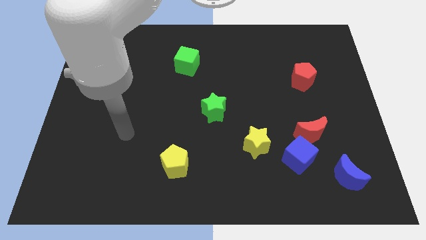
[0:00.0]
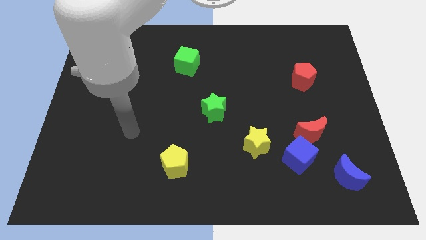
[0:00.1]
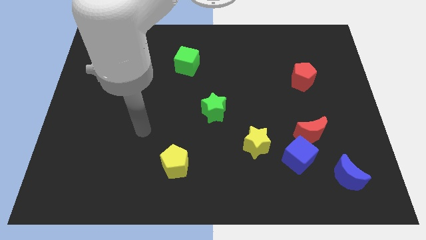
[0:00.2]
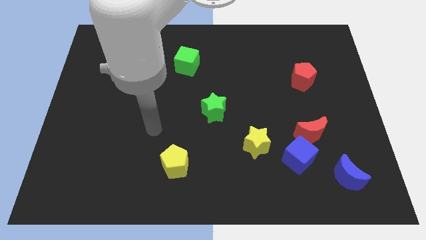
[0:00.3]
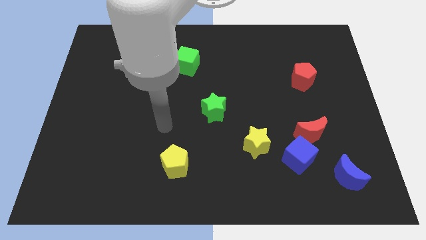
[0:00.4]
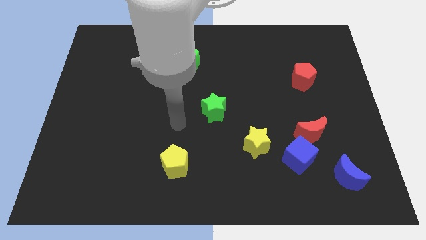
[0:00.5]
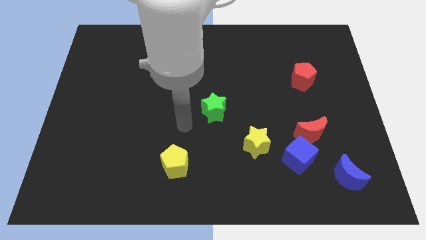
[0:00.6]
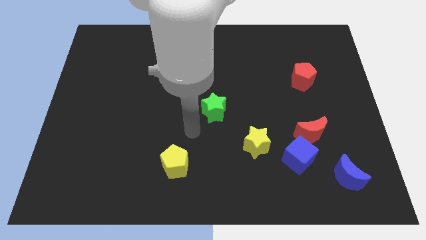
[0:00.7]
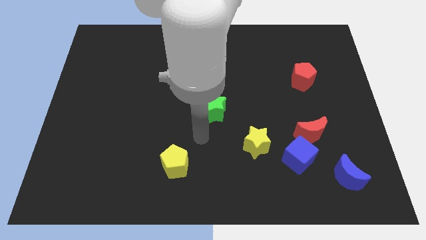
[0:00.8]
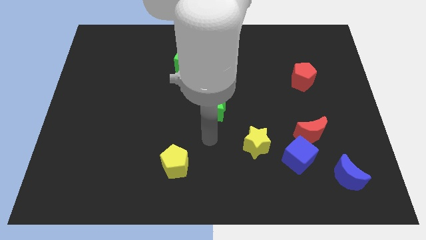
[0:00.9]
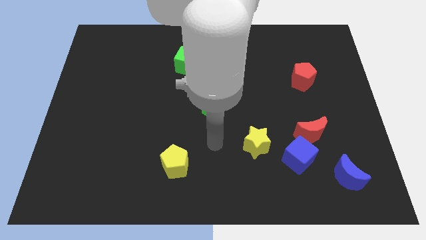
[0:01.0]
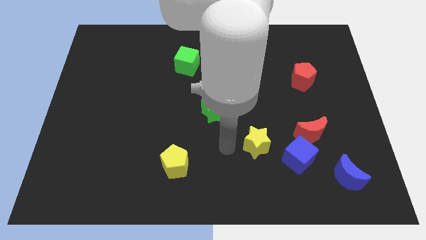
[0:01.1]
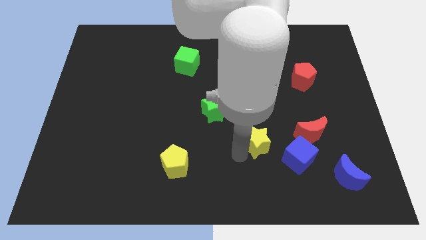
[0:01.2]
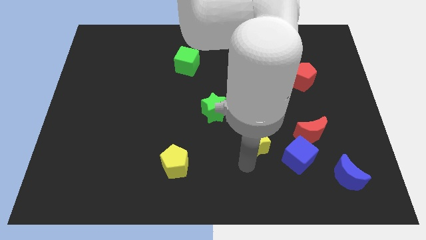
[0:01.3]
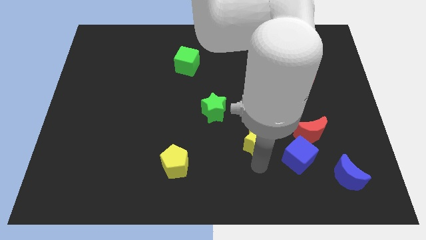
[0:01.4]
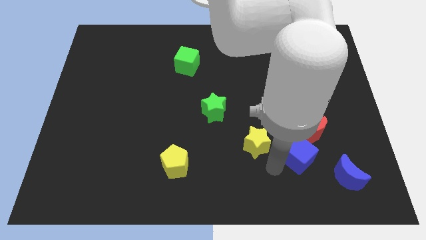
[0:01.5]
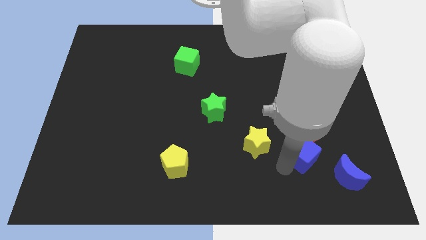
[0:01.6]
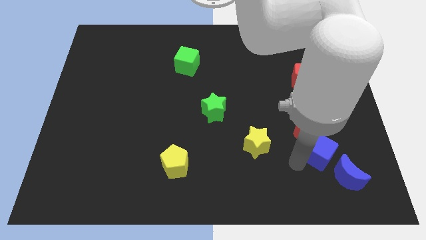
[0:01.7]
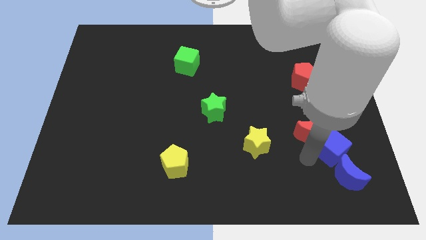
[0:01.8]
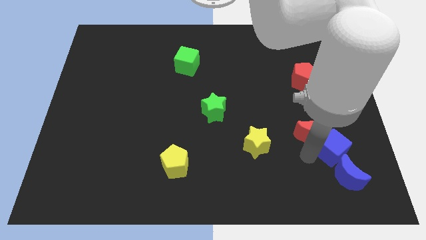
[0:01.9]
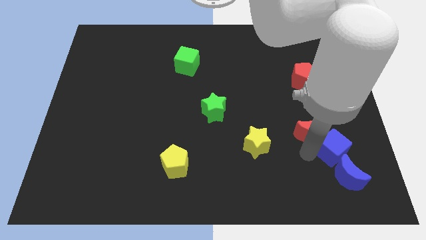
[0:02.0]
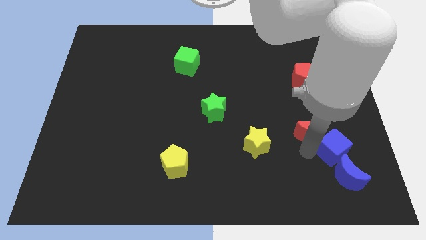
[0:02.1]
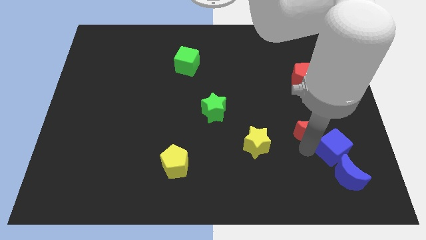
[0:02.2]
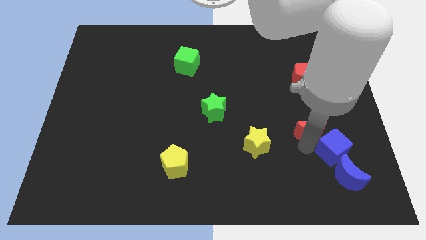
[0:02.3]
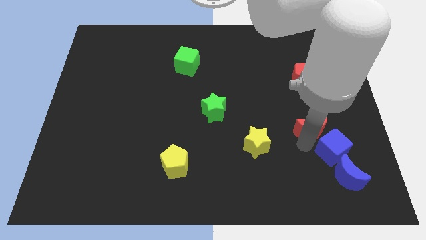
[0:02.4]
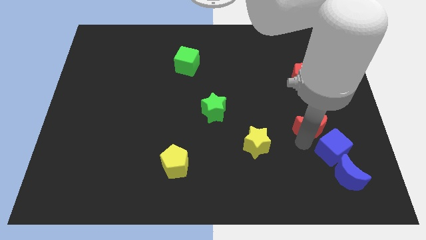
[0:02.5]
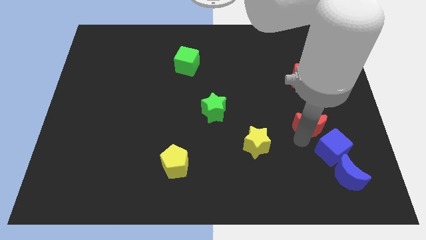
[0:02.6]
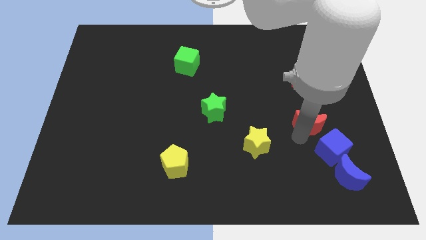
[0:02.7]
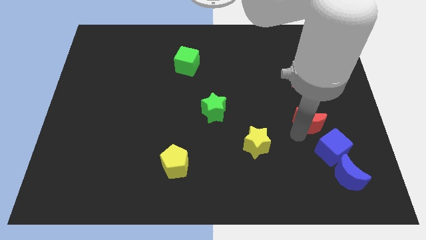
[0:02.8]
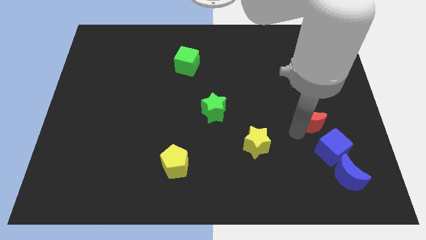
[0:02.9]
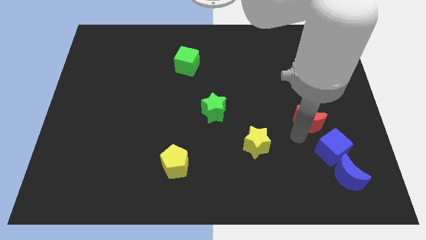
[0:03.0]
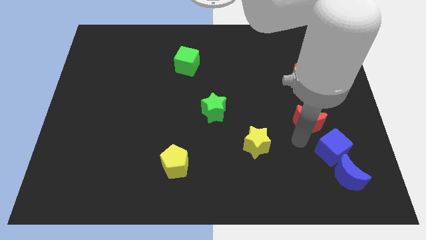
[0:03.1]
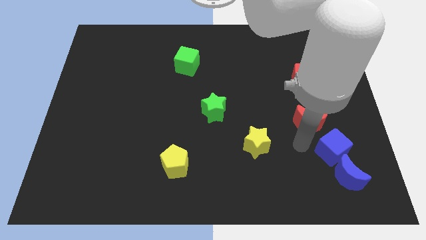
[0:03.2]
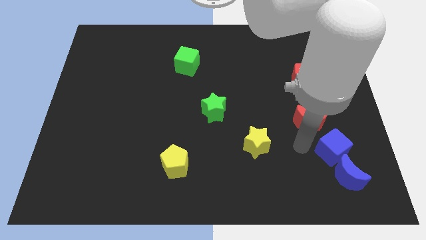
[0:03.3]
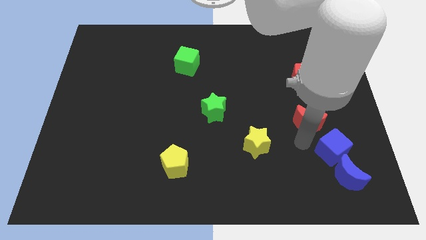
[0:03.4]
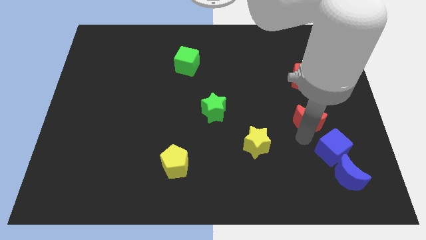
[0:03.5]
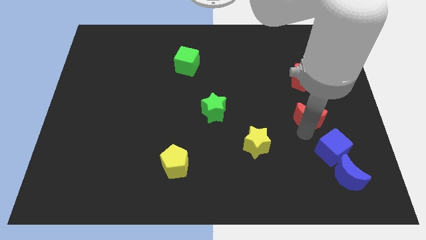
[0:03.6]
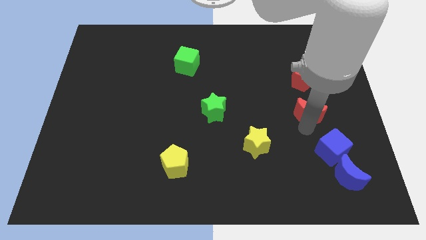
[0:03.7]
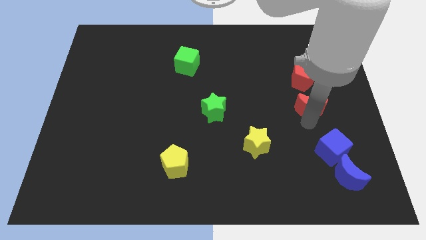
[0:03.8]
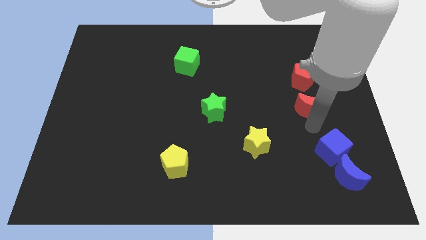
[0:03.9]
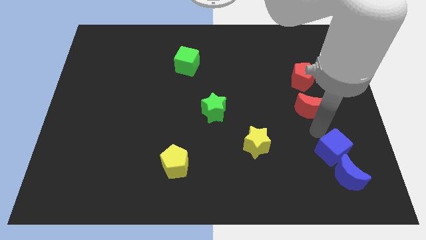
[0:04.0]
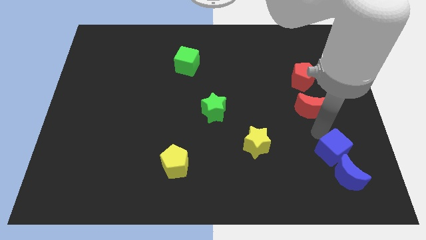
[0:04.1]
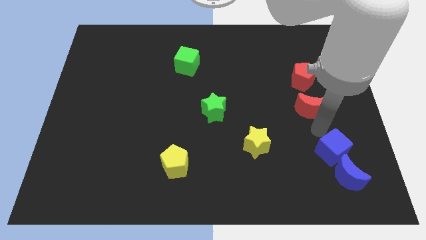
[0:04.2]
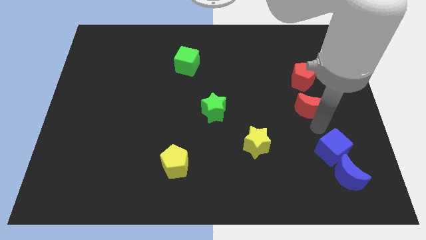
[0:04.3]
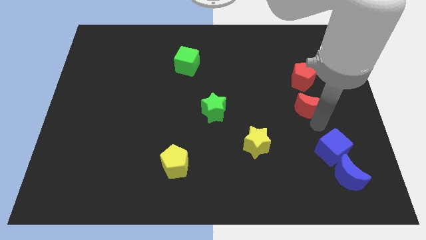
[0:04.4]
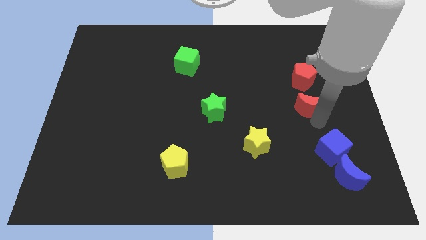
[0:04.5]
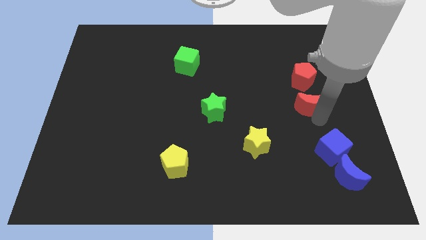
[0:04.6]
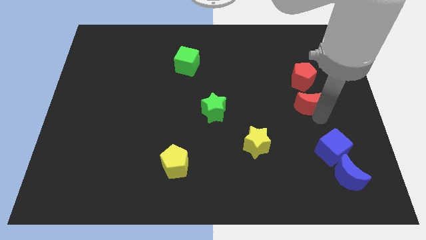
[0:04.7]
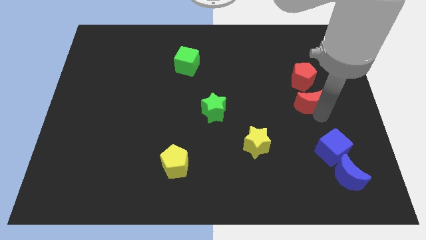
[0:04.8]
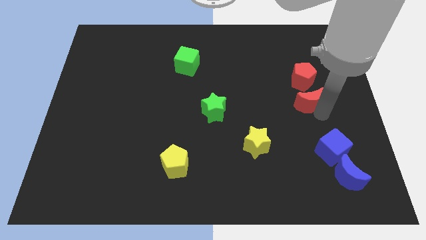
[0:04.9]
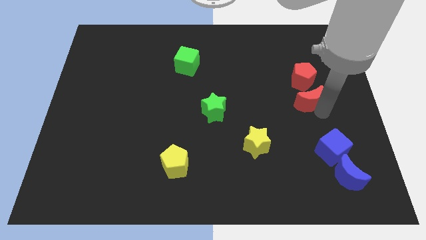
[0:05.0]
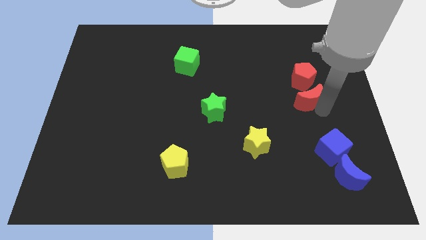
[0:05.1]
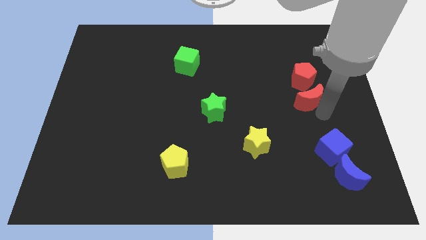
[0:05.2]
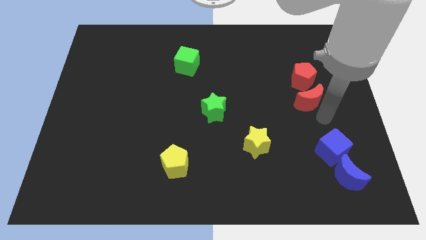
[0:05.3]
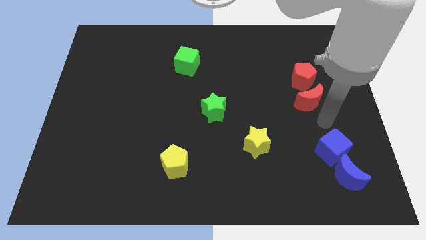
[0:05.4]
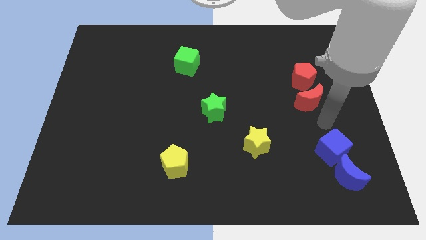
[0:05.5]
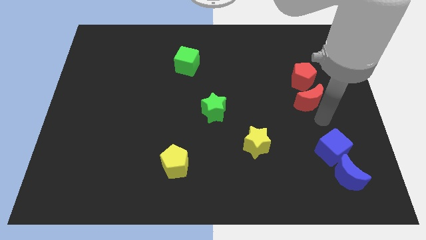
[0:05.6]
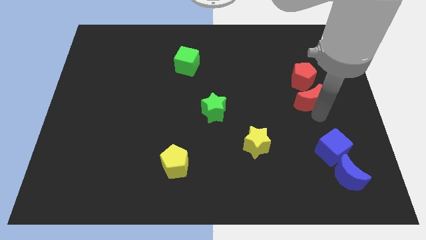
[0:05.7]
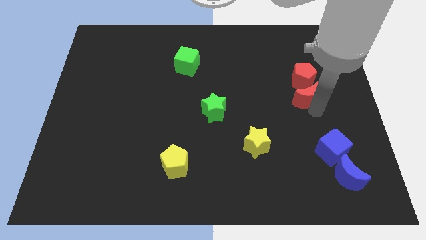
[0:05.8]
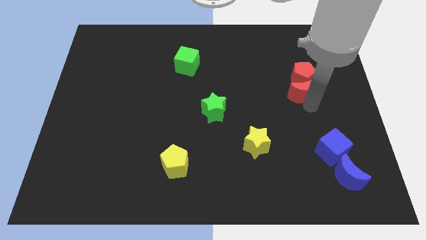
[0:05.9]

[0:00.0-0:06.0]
push the red moon towards the red pentagon
